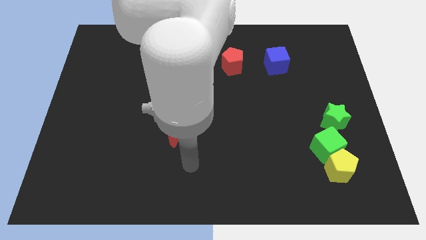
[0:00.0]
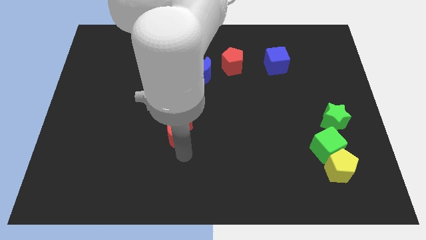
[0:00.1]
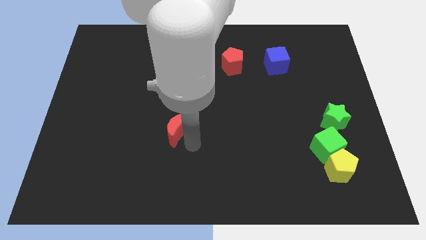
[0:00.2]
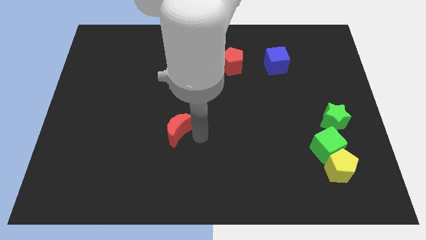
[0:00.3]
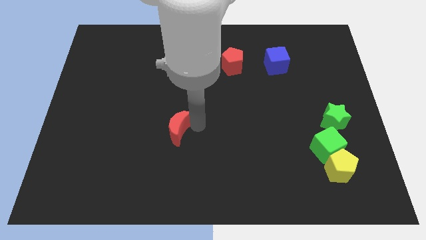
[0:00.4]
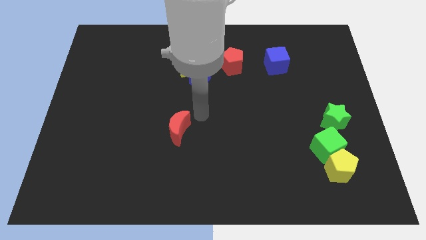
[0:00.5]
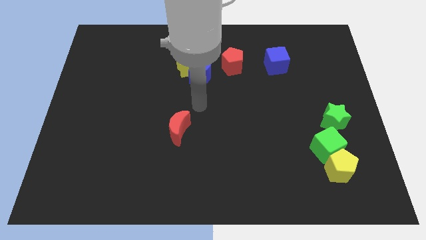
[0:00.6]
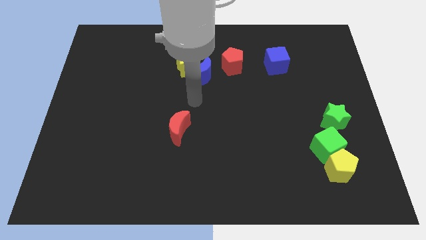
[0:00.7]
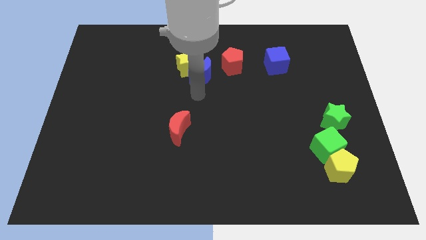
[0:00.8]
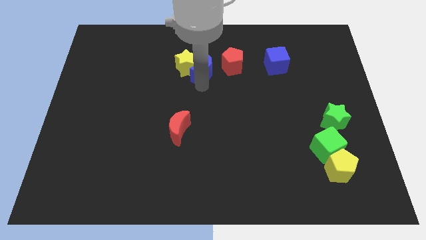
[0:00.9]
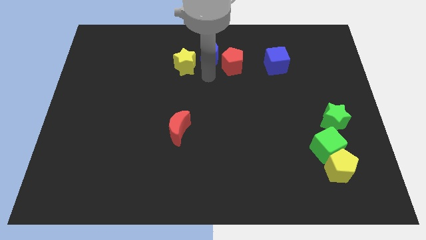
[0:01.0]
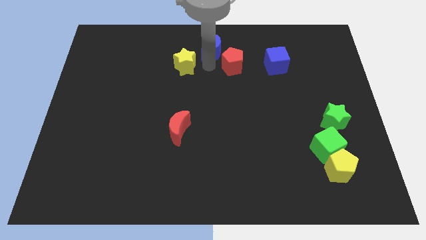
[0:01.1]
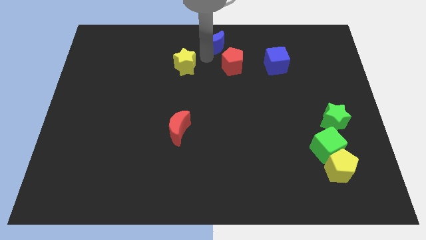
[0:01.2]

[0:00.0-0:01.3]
move the yellow star away from the blue moon

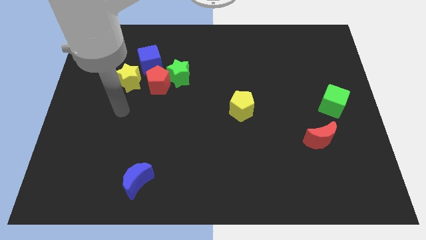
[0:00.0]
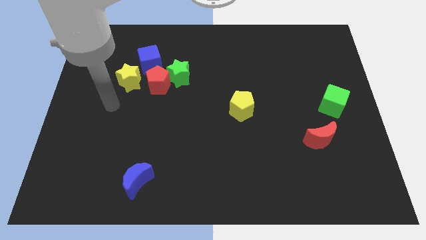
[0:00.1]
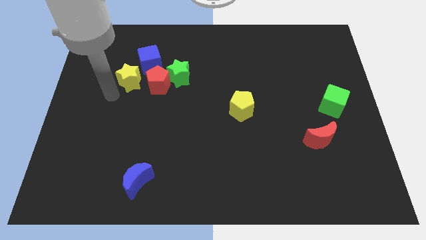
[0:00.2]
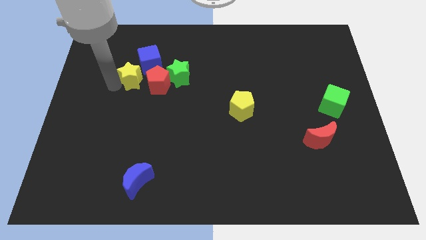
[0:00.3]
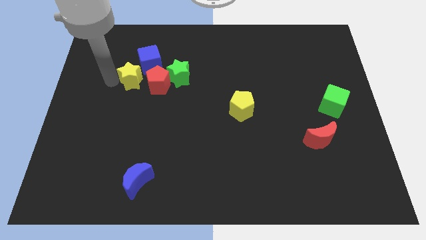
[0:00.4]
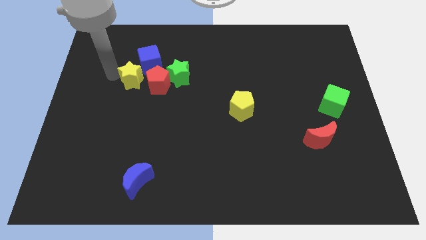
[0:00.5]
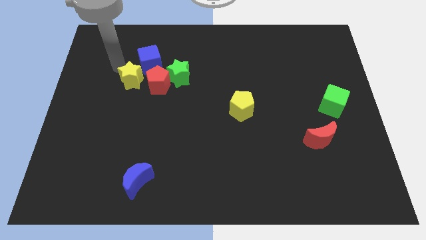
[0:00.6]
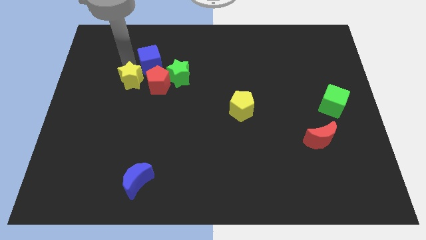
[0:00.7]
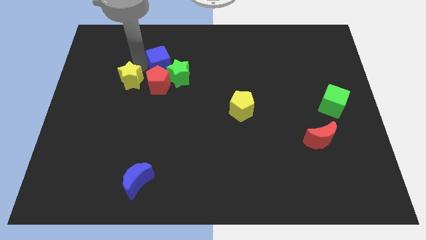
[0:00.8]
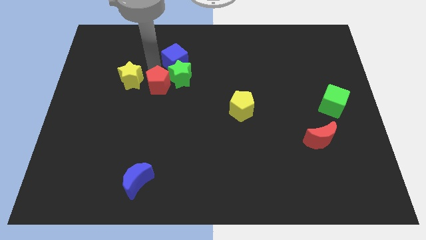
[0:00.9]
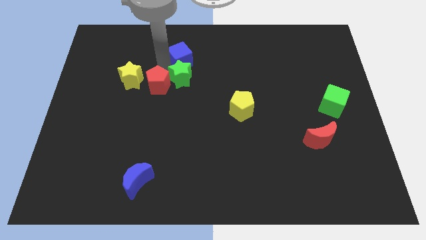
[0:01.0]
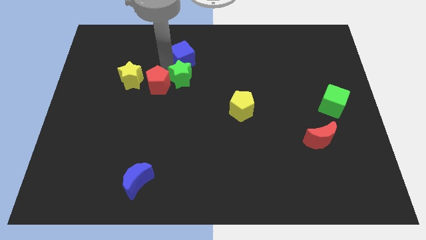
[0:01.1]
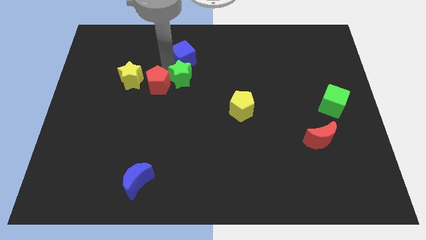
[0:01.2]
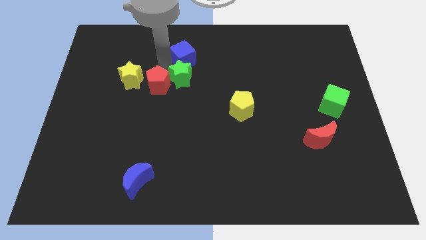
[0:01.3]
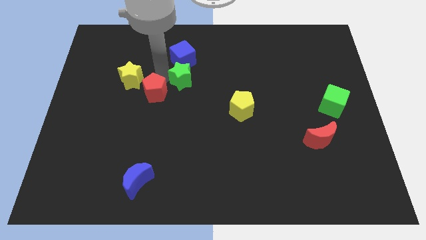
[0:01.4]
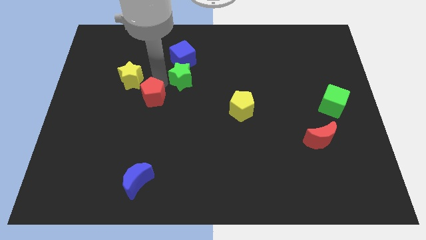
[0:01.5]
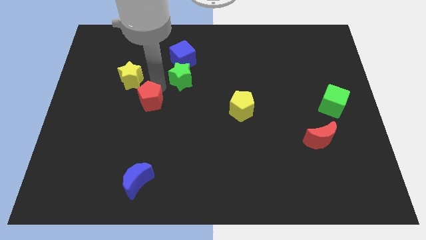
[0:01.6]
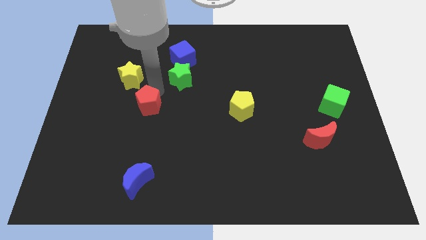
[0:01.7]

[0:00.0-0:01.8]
pull the red pentagon apart from the green star, yellow star, and blue cube

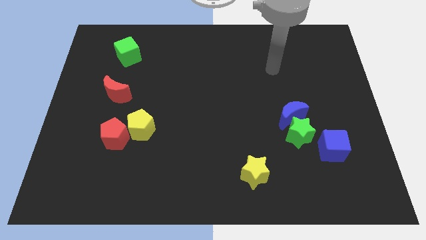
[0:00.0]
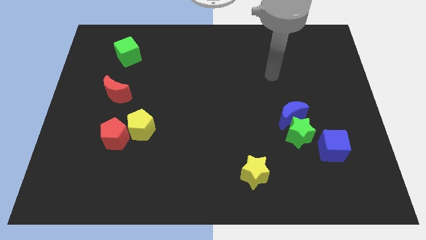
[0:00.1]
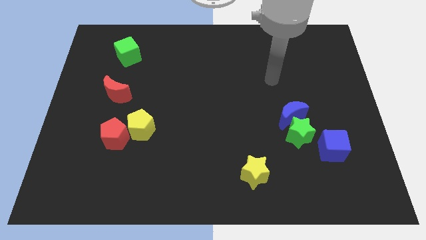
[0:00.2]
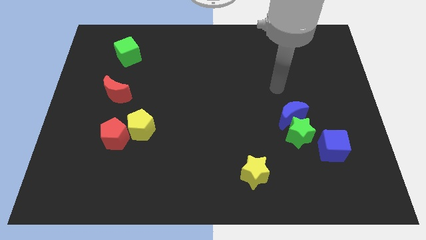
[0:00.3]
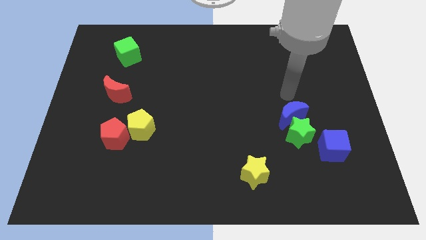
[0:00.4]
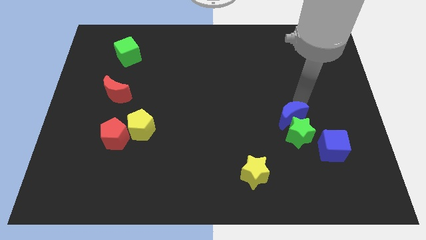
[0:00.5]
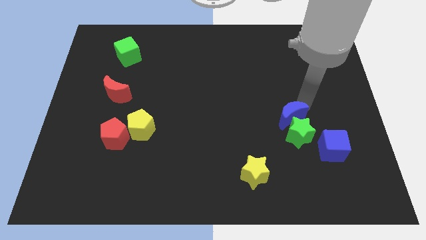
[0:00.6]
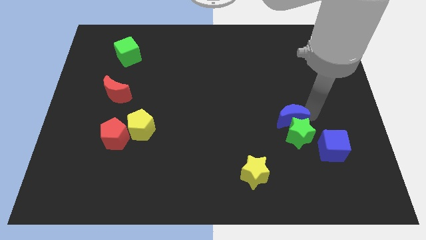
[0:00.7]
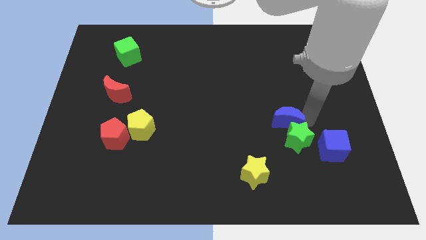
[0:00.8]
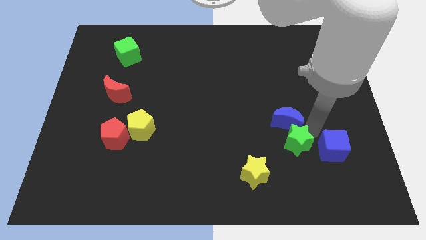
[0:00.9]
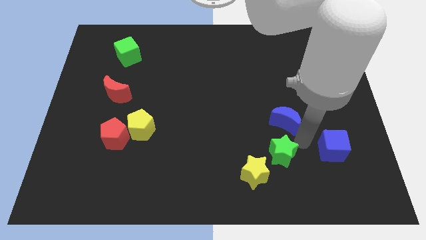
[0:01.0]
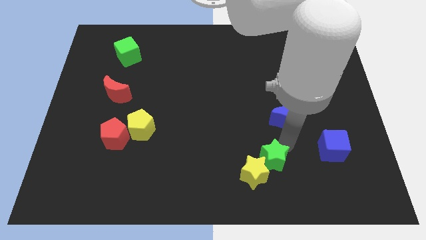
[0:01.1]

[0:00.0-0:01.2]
pull the blue moon apart from the green star

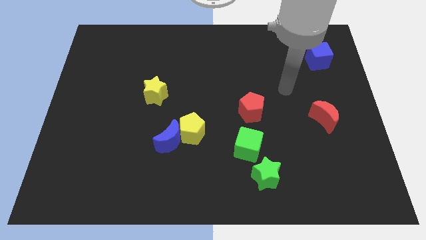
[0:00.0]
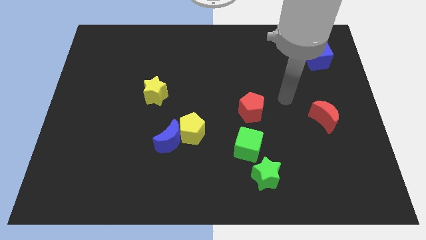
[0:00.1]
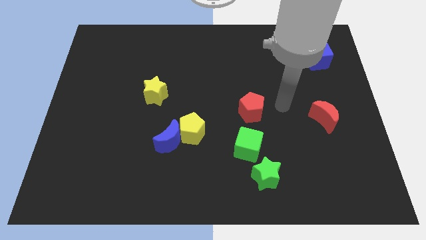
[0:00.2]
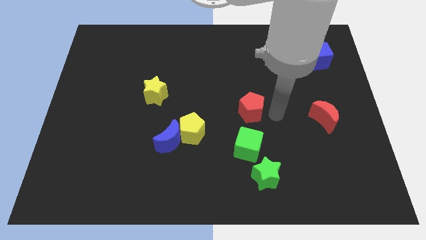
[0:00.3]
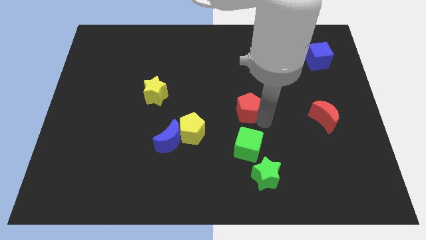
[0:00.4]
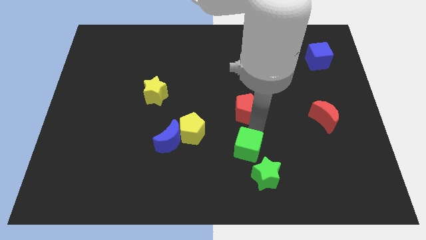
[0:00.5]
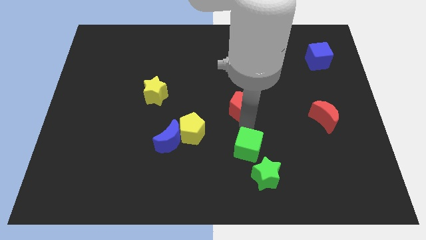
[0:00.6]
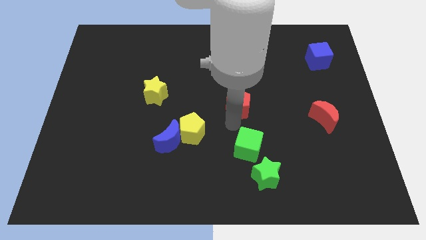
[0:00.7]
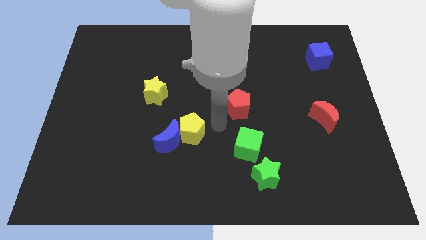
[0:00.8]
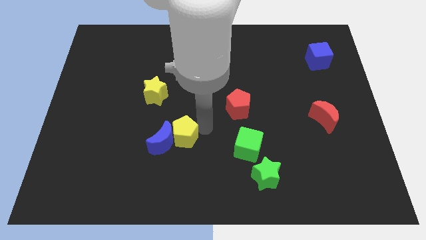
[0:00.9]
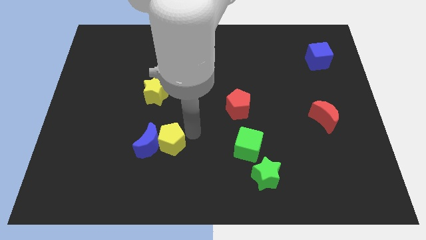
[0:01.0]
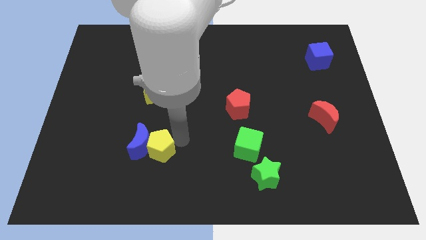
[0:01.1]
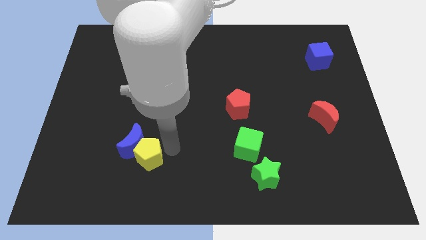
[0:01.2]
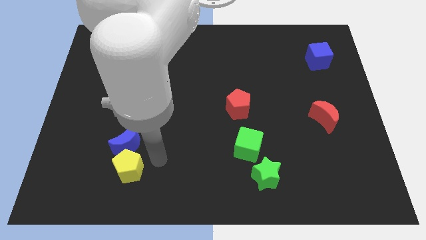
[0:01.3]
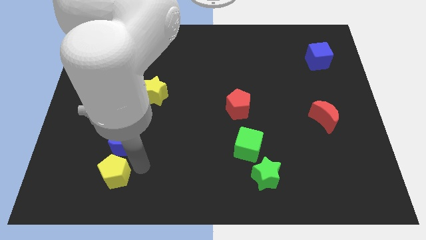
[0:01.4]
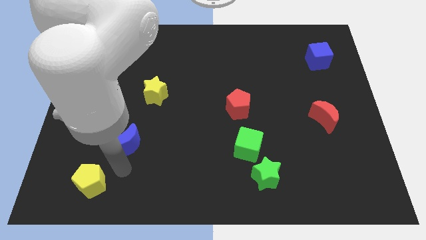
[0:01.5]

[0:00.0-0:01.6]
move the blue moon away from the yellow pentagon

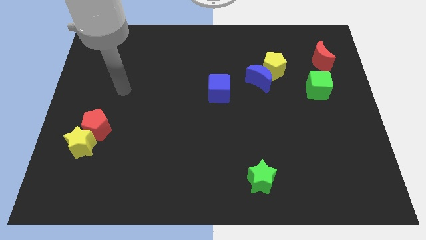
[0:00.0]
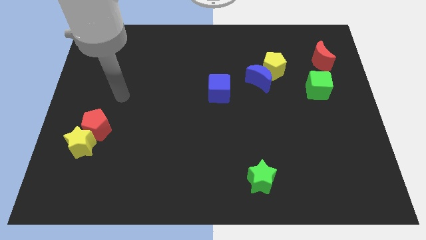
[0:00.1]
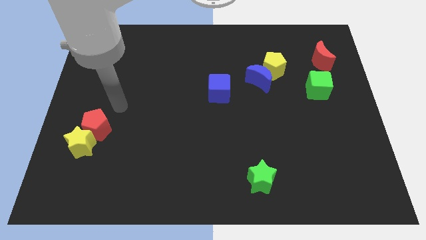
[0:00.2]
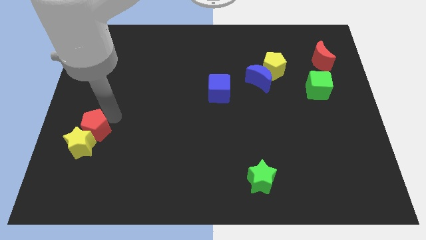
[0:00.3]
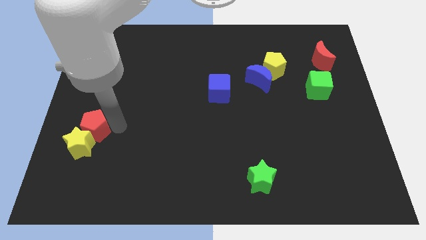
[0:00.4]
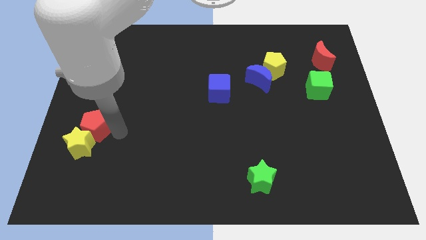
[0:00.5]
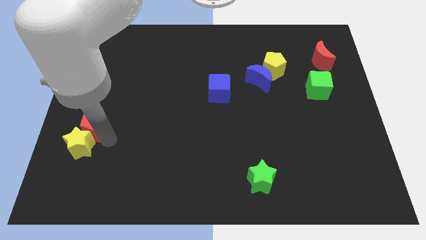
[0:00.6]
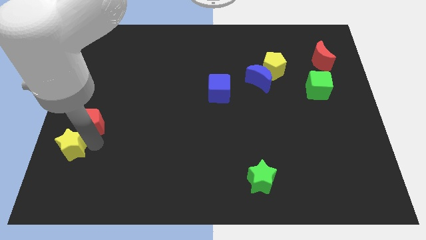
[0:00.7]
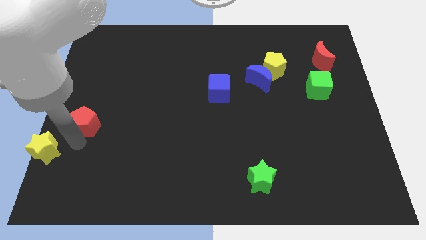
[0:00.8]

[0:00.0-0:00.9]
move the red pentagon away from the yellow star

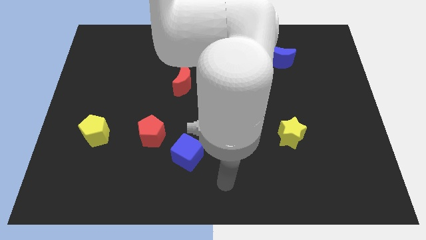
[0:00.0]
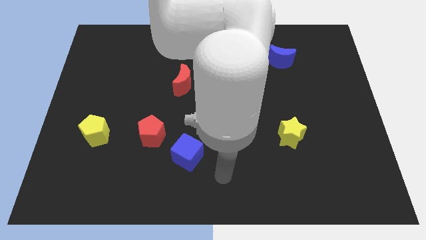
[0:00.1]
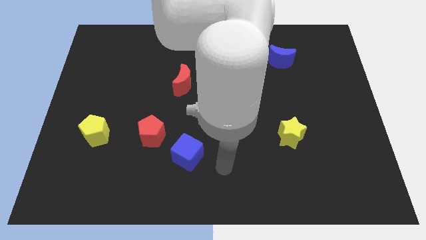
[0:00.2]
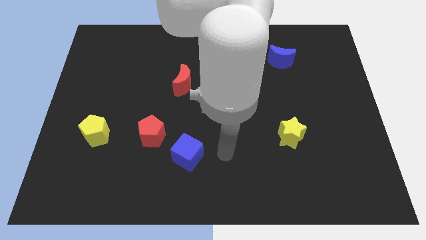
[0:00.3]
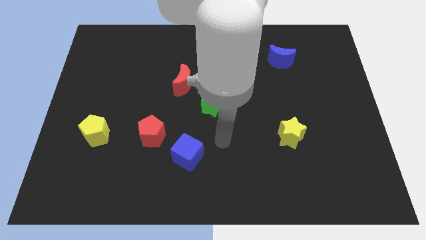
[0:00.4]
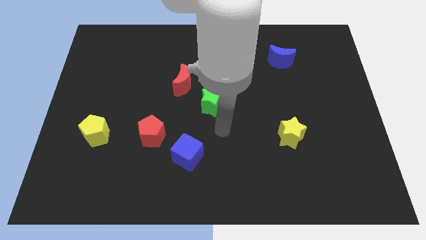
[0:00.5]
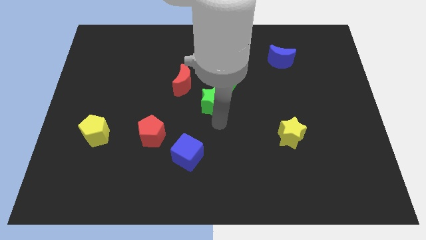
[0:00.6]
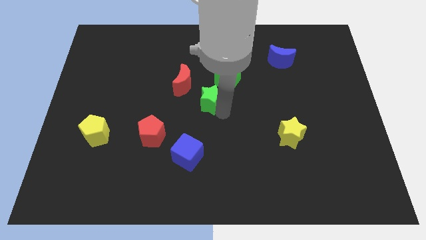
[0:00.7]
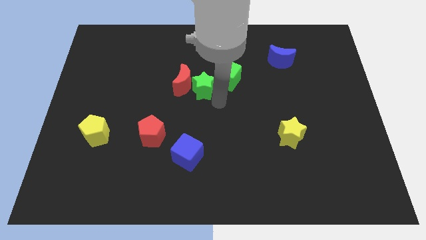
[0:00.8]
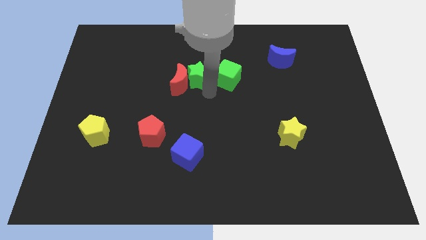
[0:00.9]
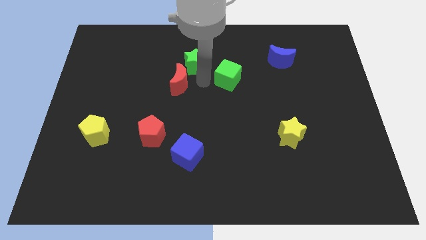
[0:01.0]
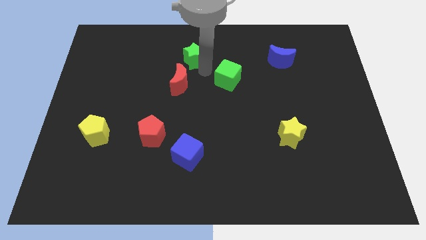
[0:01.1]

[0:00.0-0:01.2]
pull the green cube apart from the green star

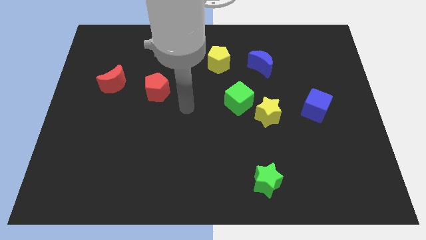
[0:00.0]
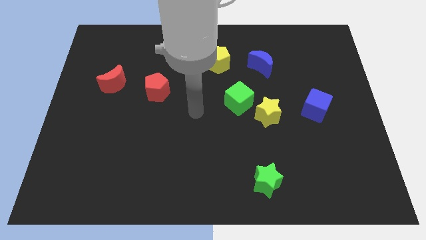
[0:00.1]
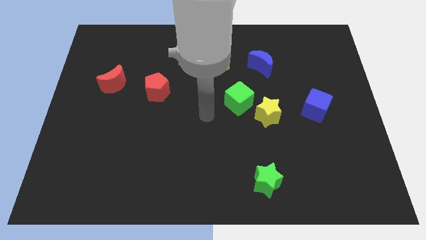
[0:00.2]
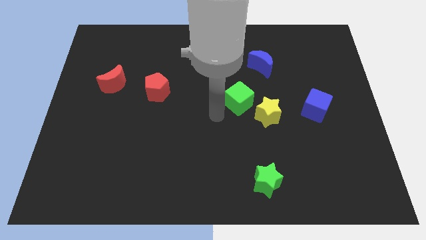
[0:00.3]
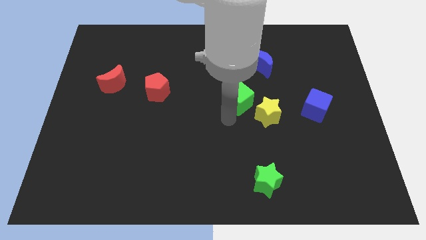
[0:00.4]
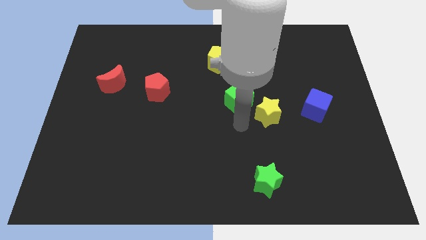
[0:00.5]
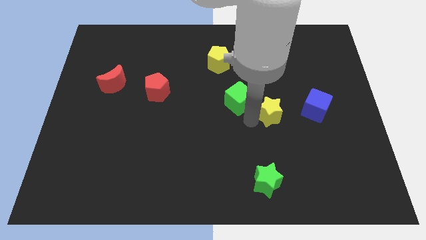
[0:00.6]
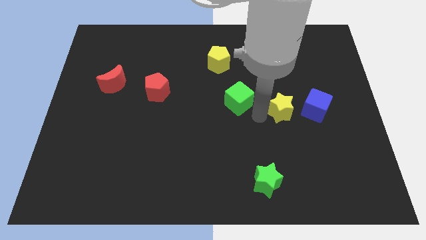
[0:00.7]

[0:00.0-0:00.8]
separate the green cube from the yellow star

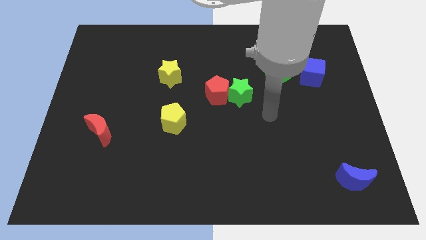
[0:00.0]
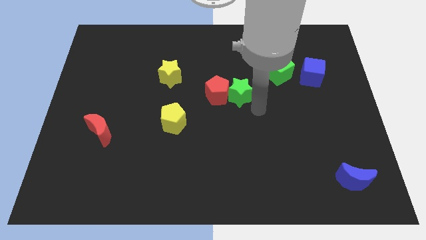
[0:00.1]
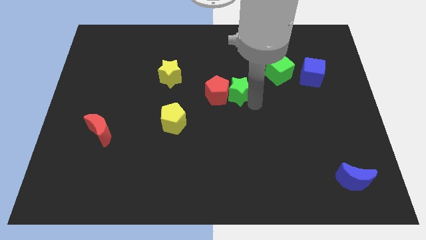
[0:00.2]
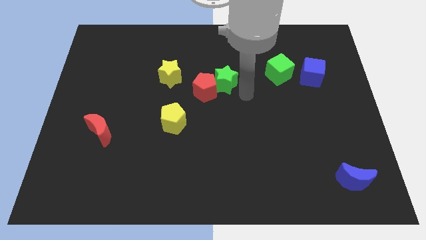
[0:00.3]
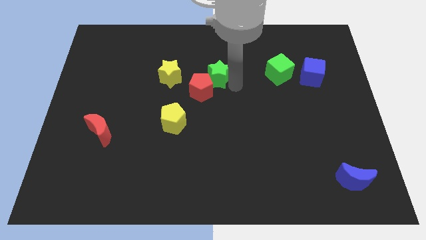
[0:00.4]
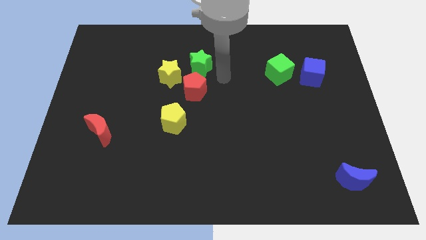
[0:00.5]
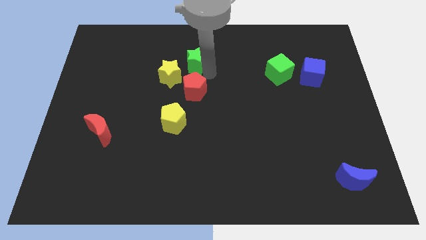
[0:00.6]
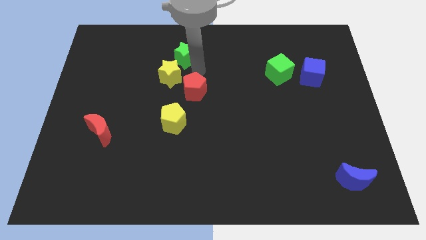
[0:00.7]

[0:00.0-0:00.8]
move the red pentagon away from the green star
